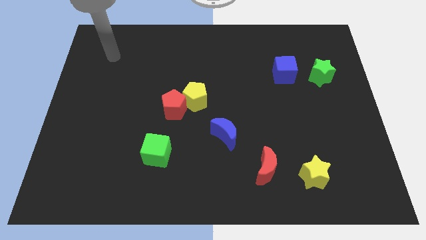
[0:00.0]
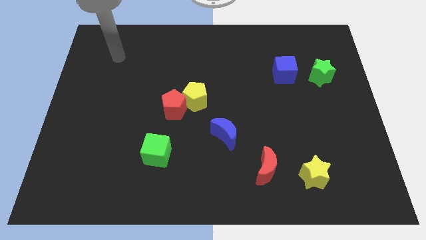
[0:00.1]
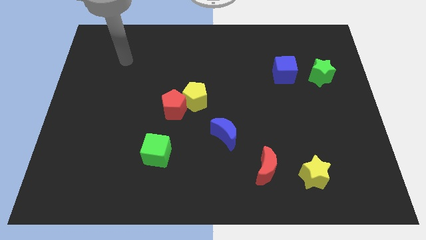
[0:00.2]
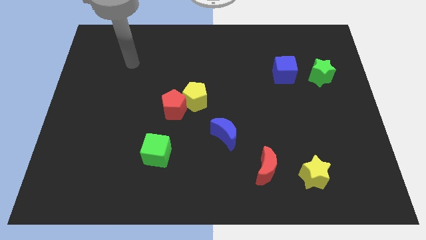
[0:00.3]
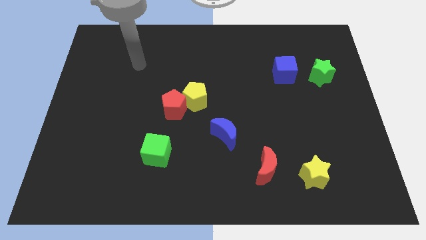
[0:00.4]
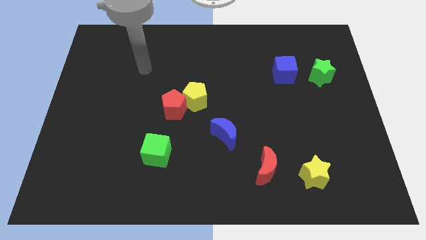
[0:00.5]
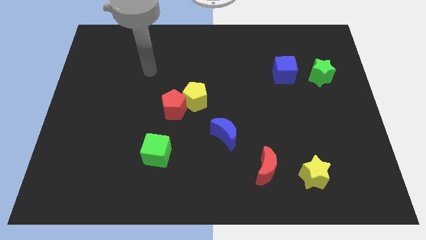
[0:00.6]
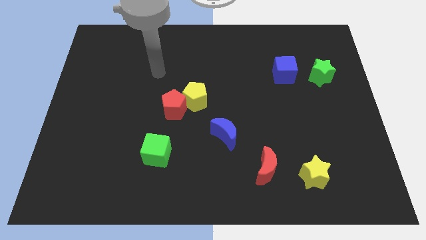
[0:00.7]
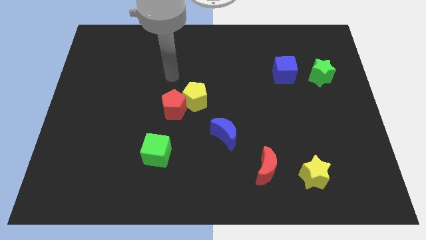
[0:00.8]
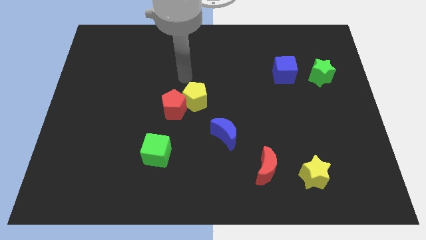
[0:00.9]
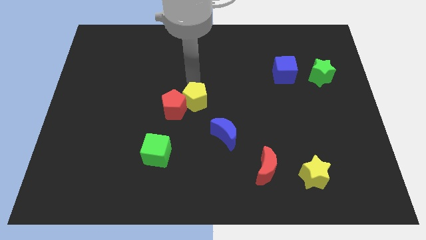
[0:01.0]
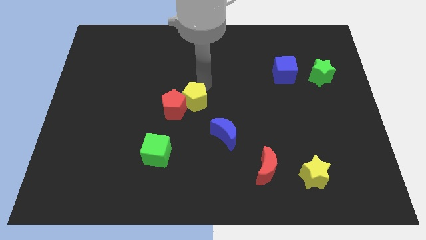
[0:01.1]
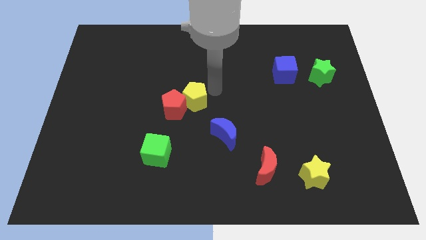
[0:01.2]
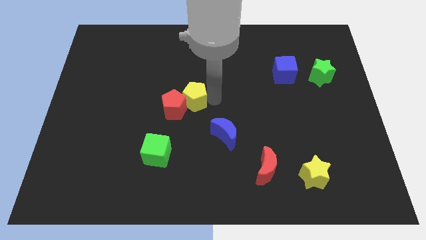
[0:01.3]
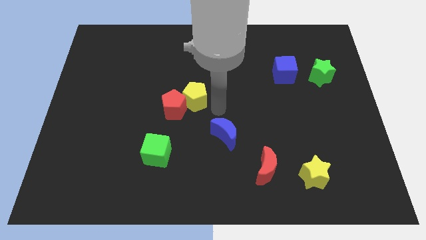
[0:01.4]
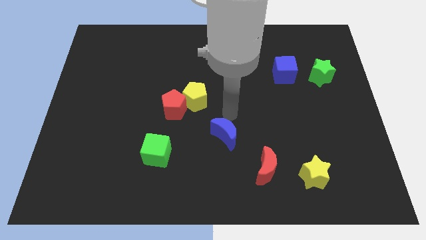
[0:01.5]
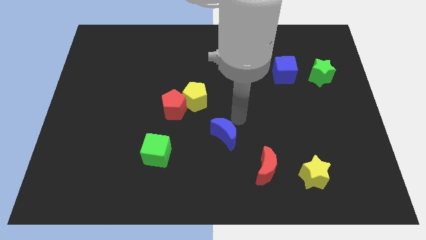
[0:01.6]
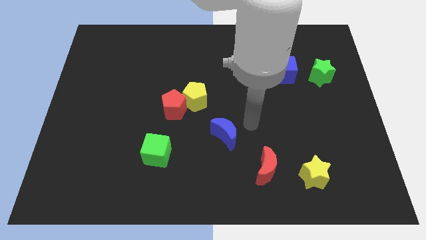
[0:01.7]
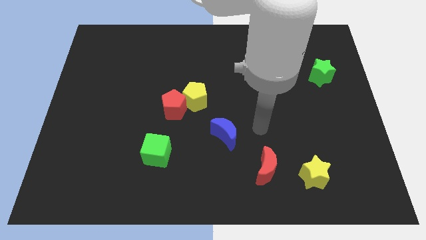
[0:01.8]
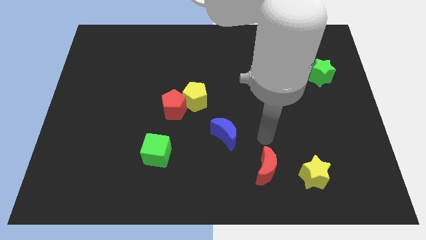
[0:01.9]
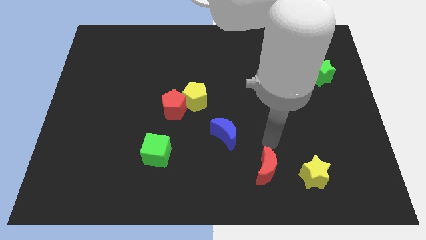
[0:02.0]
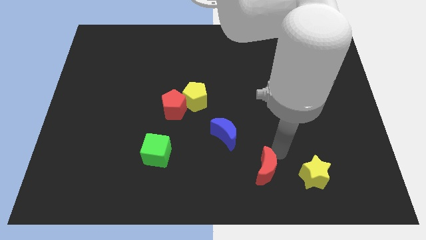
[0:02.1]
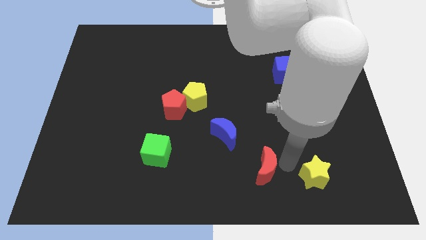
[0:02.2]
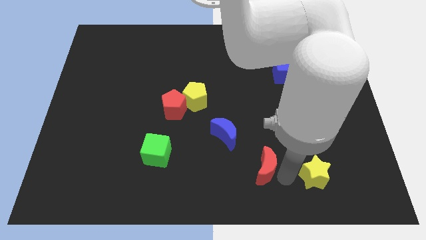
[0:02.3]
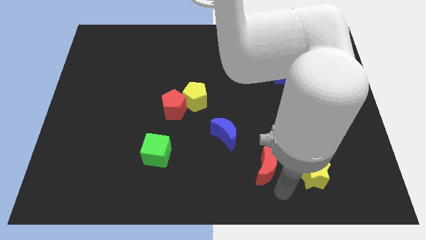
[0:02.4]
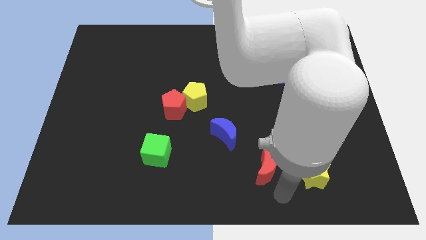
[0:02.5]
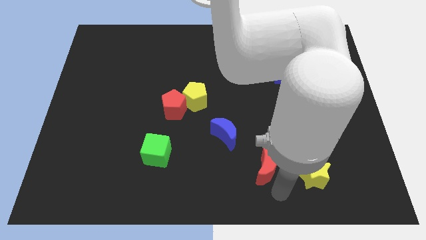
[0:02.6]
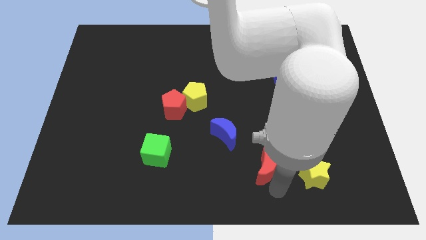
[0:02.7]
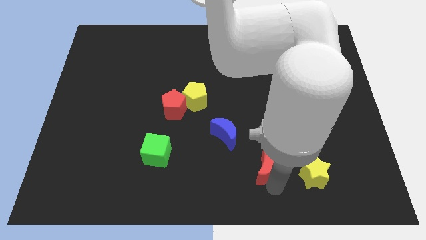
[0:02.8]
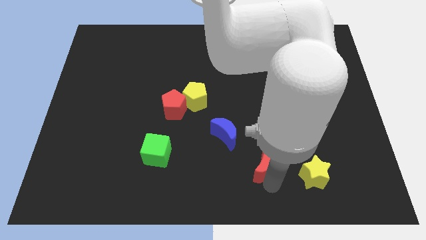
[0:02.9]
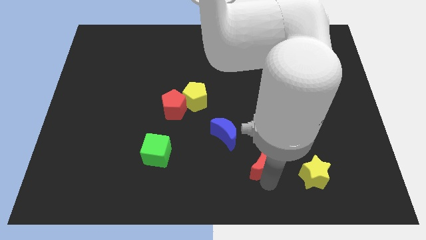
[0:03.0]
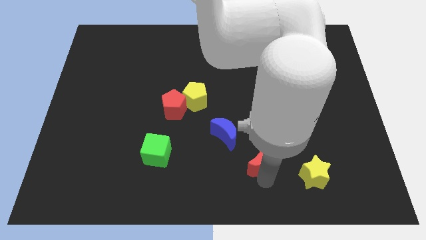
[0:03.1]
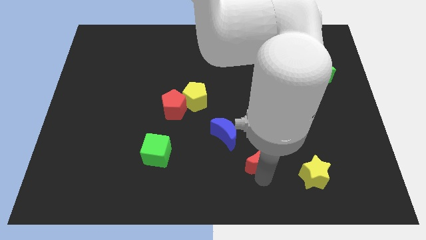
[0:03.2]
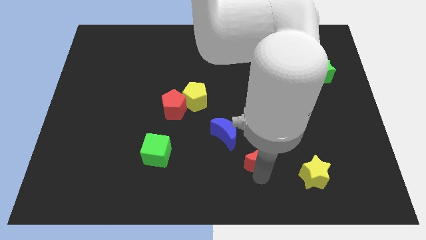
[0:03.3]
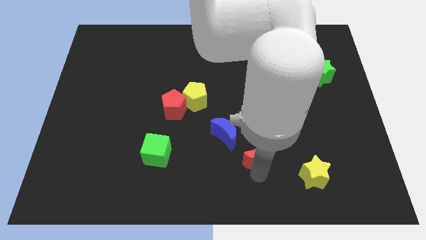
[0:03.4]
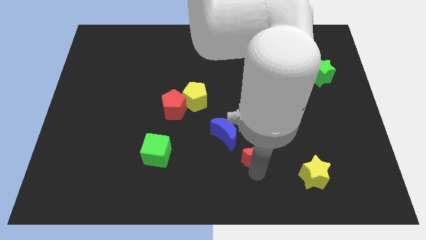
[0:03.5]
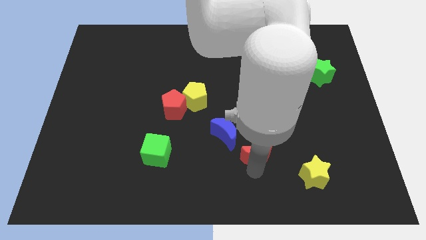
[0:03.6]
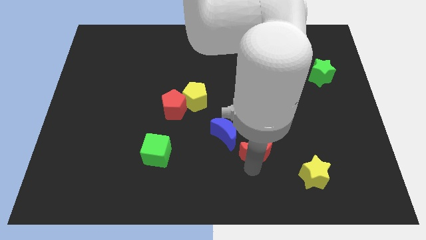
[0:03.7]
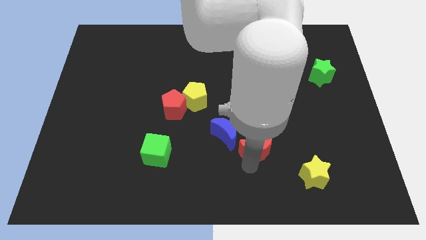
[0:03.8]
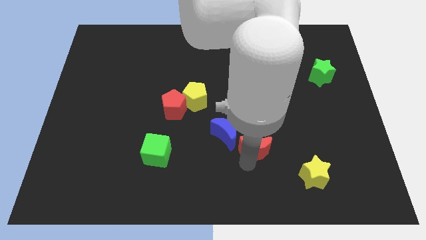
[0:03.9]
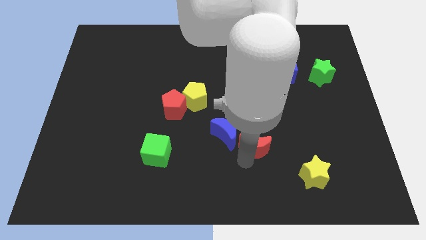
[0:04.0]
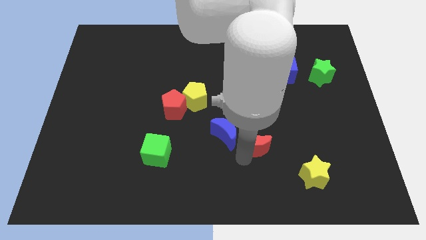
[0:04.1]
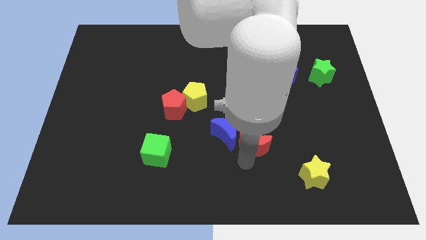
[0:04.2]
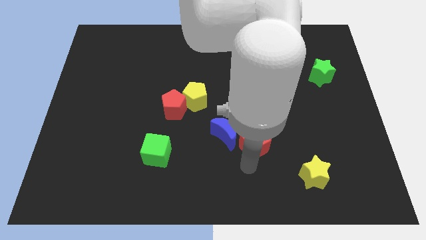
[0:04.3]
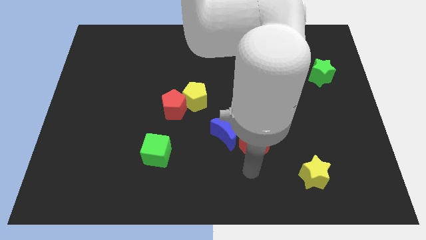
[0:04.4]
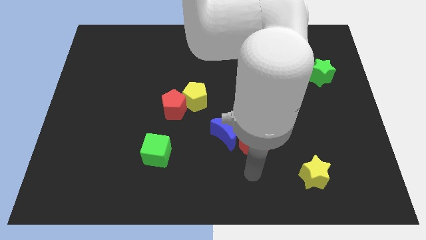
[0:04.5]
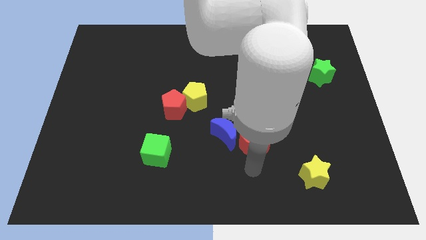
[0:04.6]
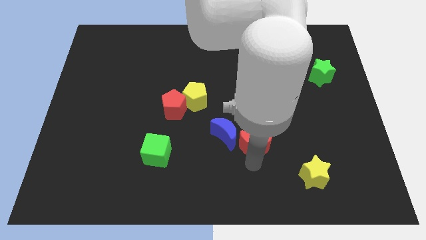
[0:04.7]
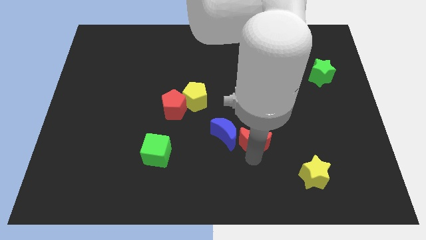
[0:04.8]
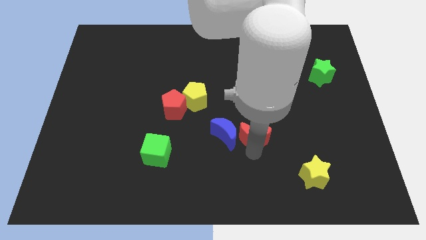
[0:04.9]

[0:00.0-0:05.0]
move the red moon up slightly

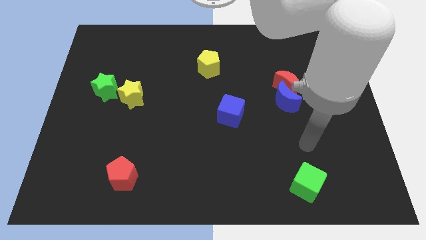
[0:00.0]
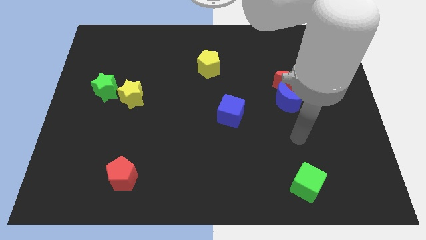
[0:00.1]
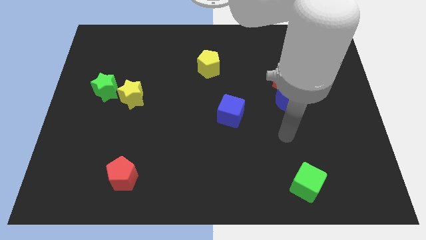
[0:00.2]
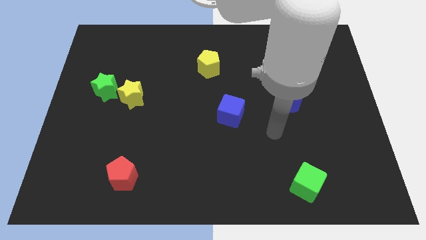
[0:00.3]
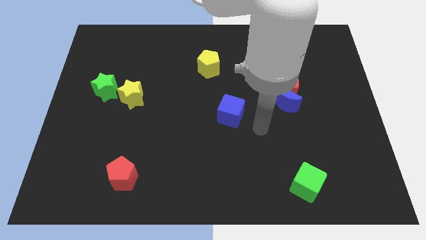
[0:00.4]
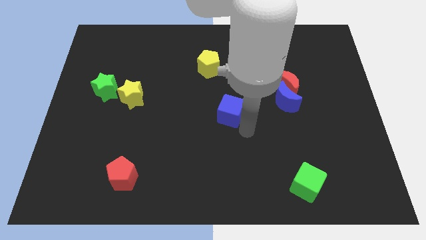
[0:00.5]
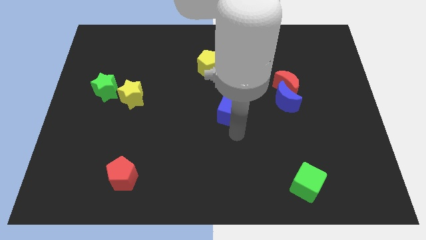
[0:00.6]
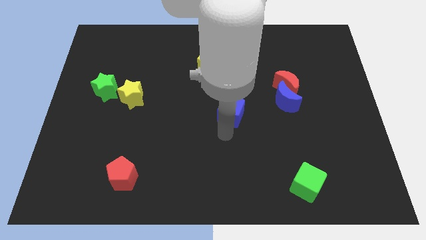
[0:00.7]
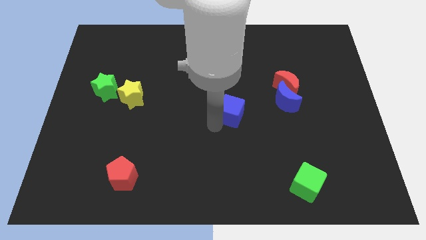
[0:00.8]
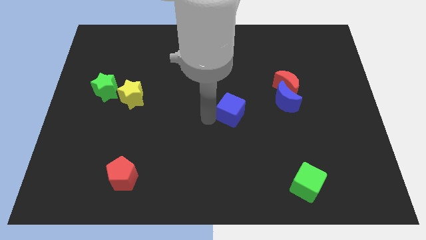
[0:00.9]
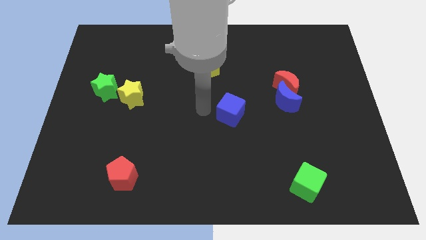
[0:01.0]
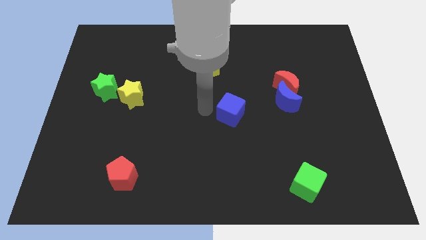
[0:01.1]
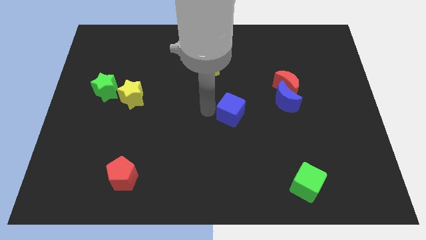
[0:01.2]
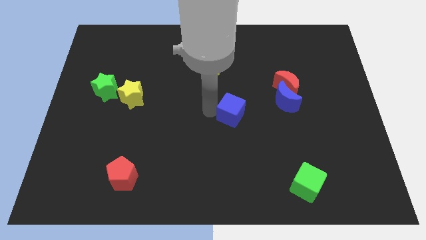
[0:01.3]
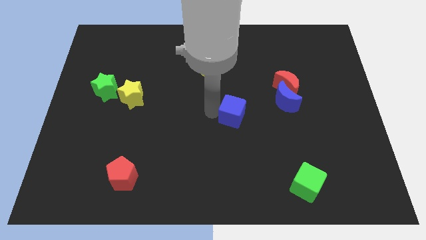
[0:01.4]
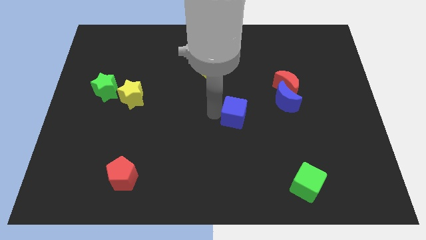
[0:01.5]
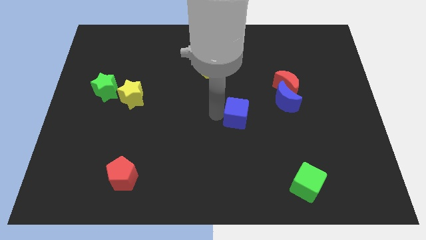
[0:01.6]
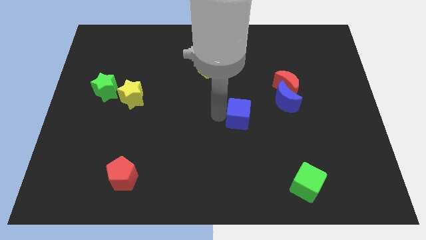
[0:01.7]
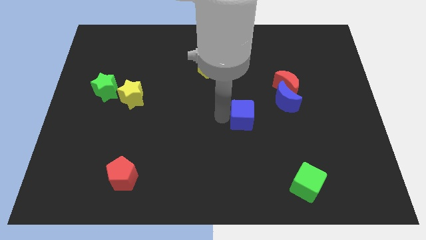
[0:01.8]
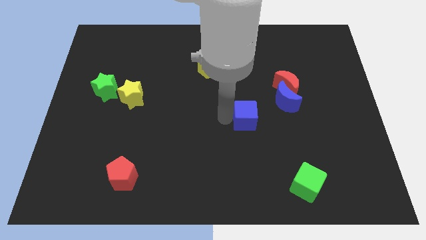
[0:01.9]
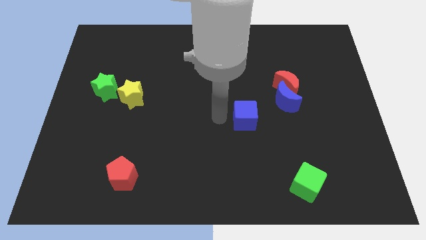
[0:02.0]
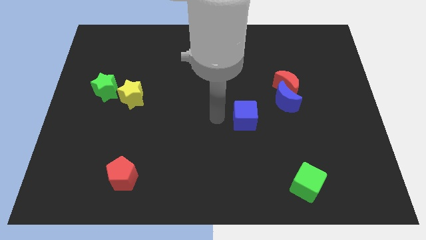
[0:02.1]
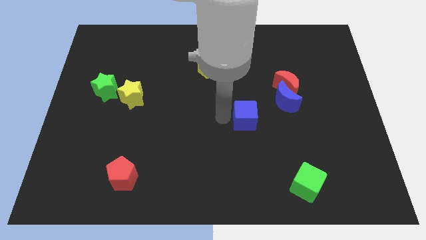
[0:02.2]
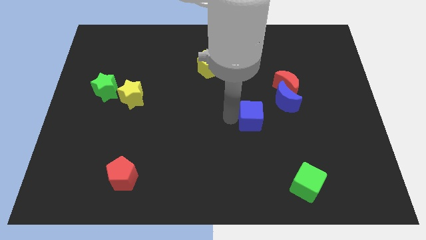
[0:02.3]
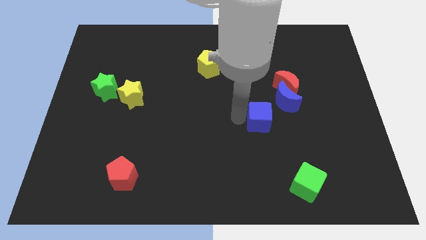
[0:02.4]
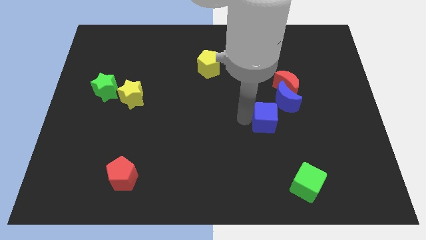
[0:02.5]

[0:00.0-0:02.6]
push the blue cube slightly to the right

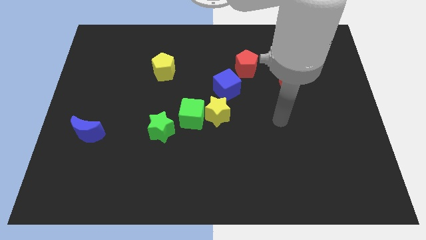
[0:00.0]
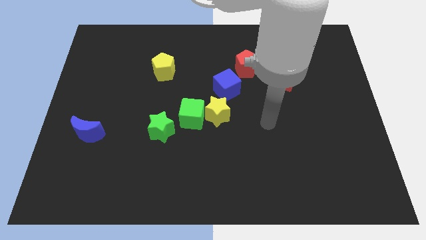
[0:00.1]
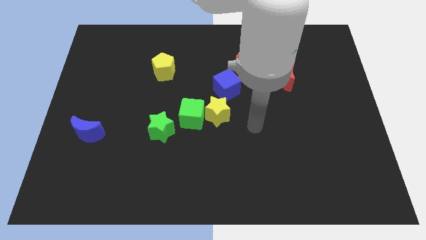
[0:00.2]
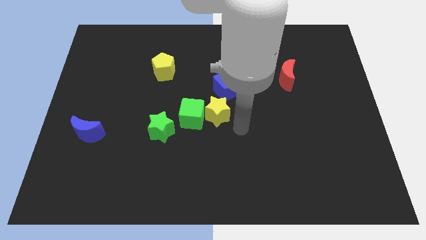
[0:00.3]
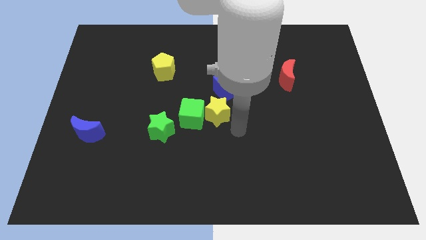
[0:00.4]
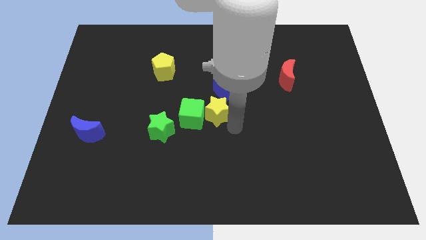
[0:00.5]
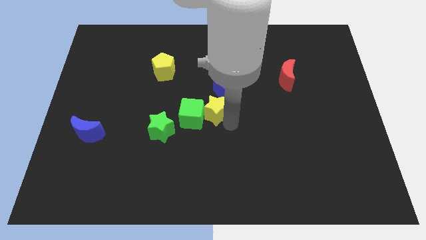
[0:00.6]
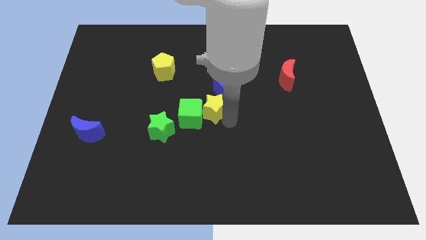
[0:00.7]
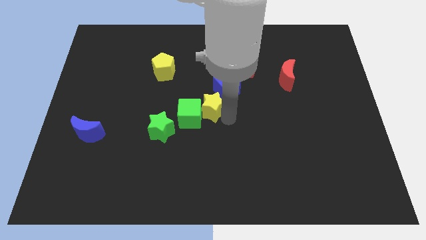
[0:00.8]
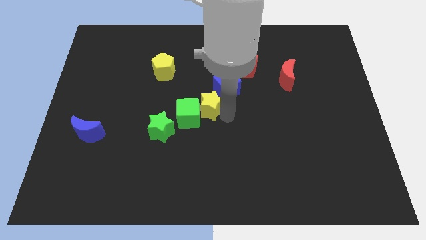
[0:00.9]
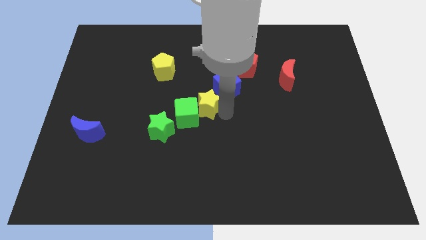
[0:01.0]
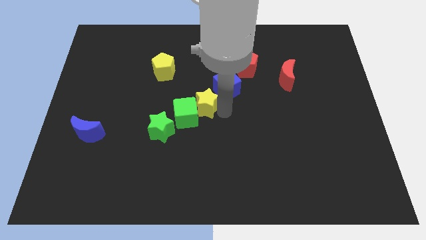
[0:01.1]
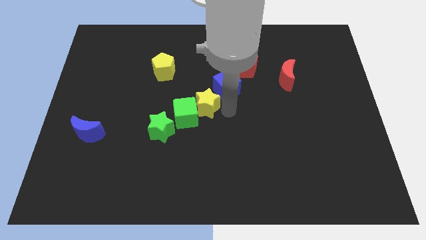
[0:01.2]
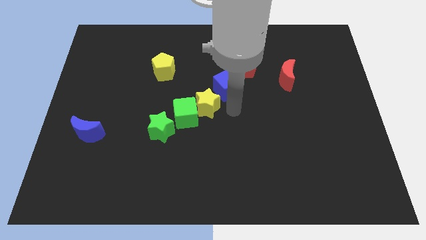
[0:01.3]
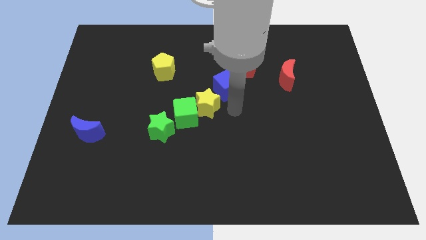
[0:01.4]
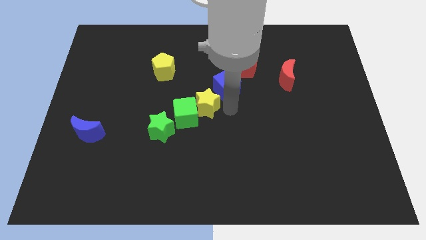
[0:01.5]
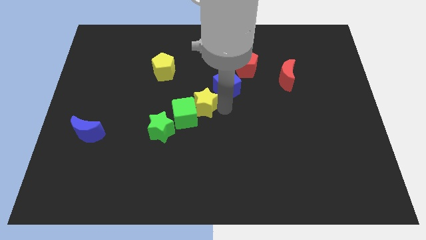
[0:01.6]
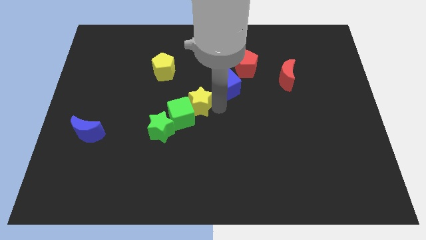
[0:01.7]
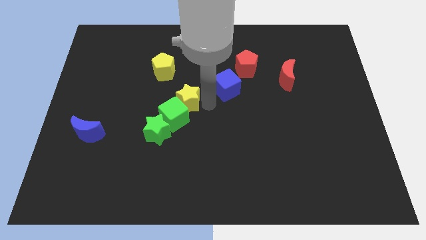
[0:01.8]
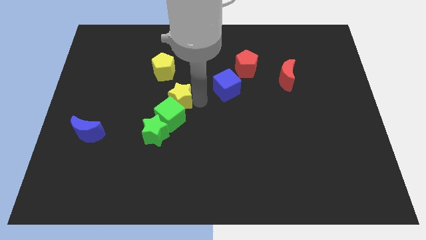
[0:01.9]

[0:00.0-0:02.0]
move the yellow star left a little bit
